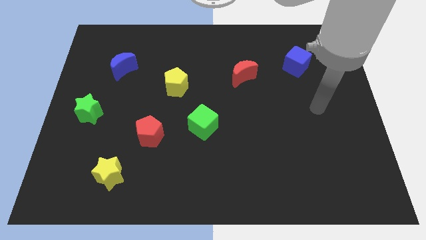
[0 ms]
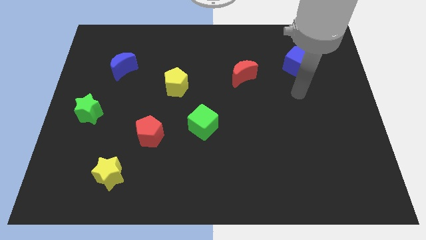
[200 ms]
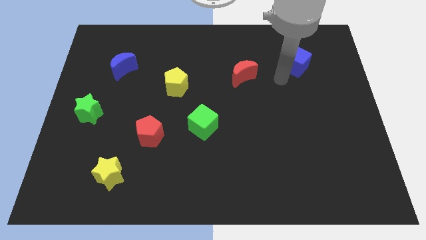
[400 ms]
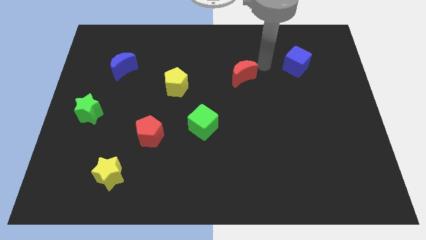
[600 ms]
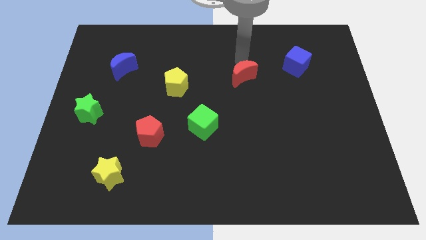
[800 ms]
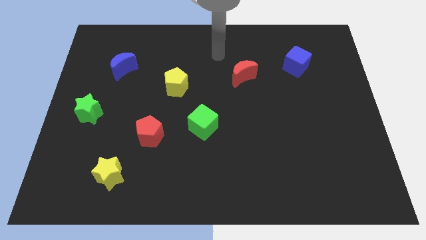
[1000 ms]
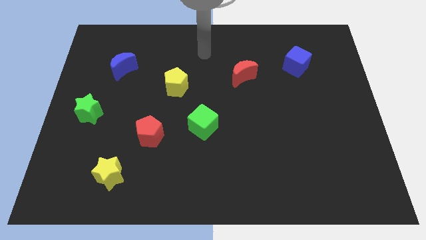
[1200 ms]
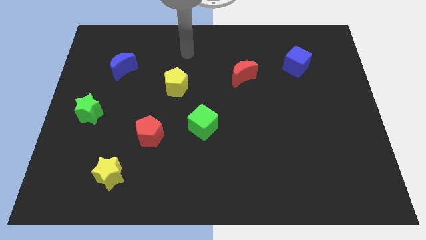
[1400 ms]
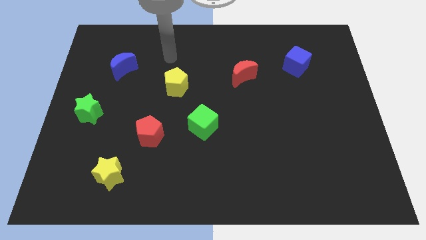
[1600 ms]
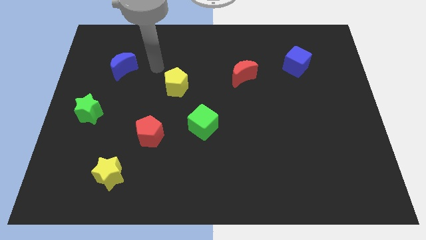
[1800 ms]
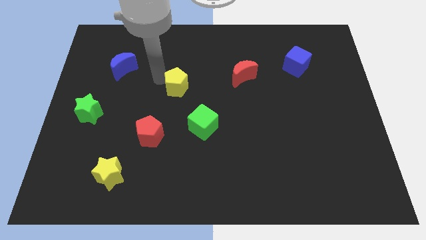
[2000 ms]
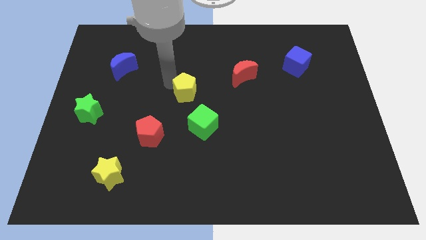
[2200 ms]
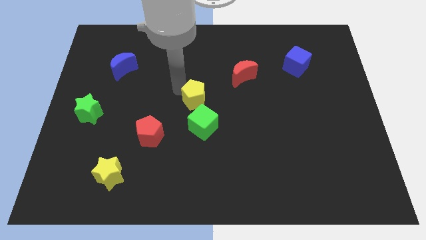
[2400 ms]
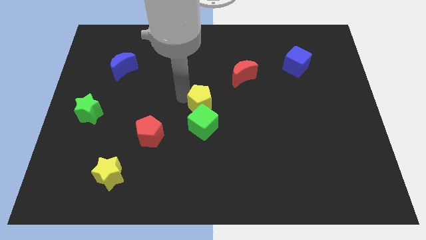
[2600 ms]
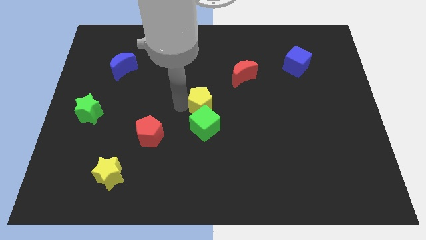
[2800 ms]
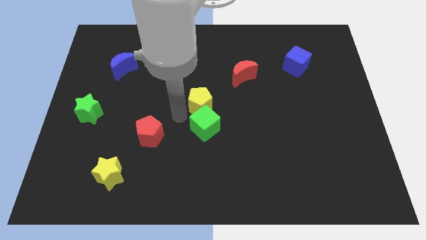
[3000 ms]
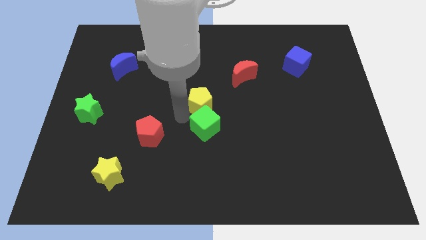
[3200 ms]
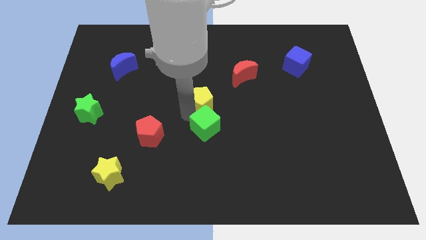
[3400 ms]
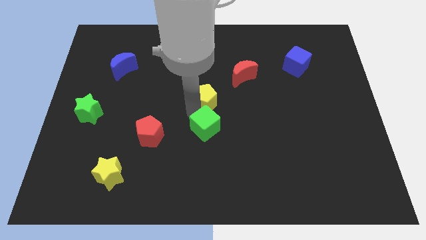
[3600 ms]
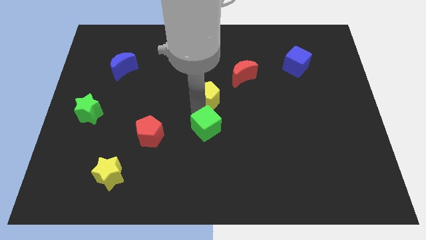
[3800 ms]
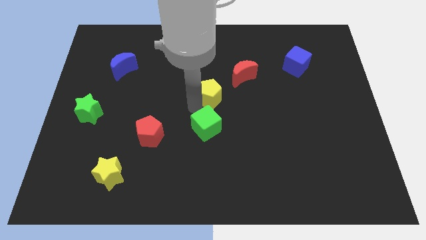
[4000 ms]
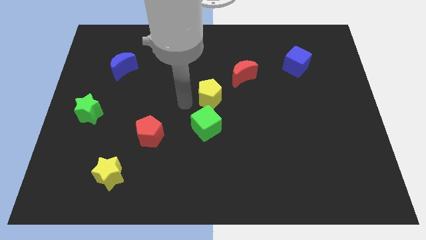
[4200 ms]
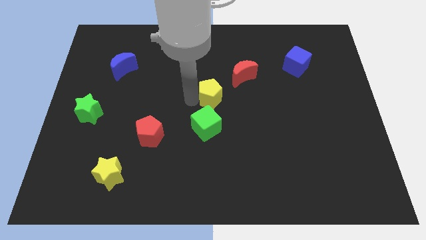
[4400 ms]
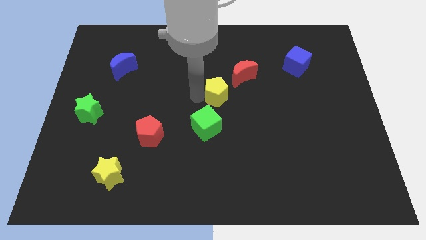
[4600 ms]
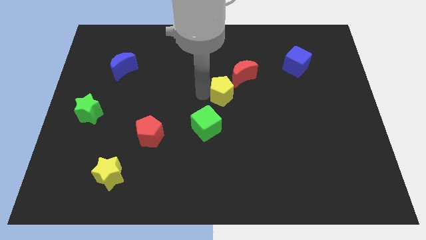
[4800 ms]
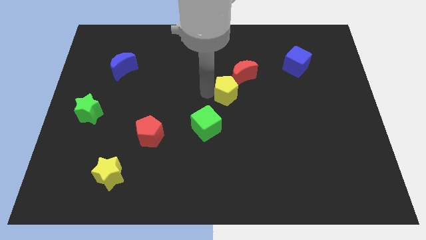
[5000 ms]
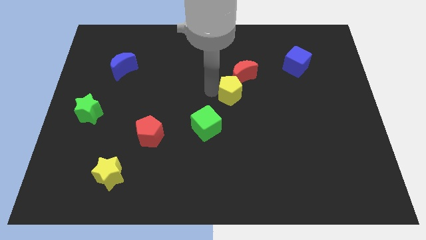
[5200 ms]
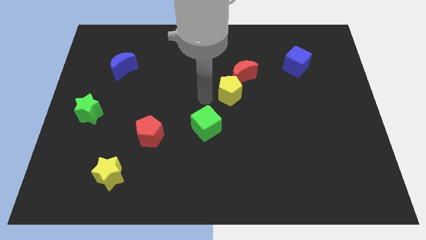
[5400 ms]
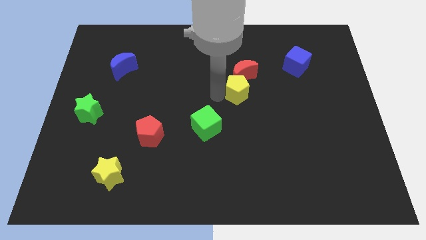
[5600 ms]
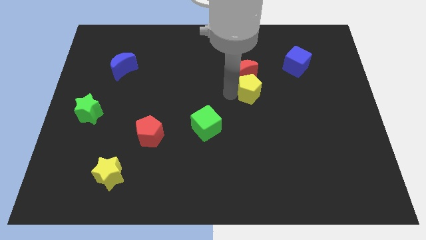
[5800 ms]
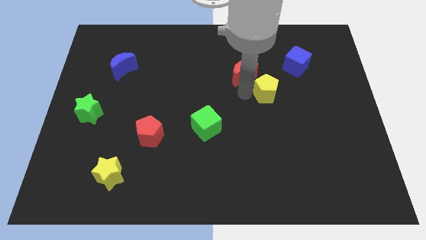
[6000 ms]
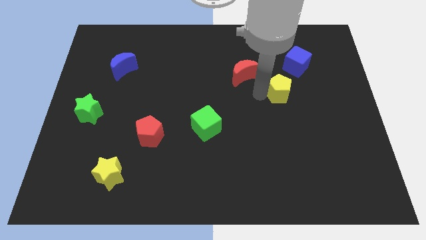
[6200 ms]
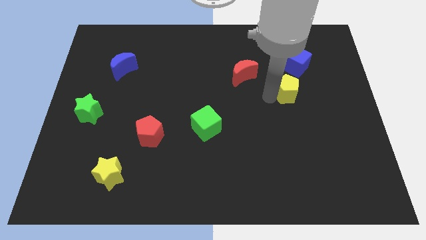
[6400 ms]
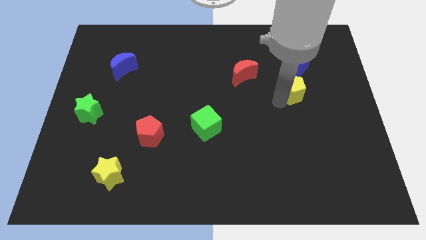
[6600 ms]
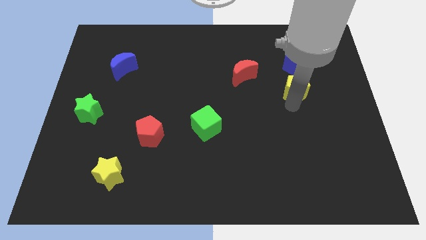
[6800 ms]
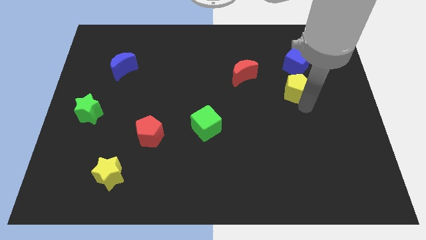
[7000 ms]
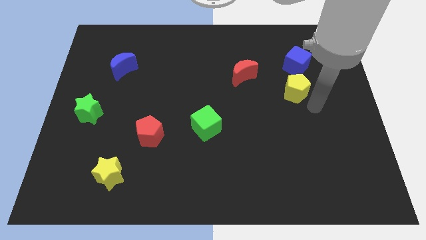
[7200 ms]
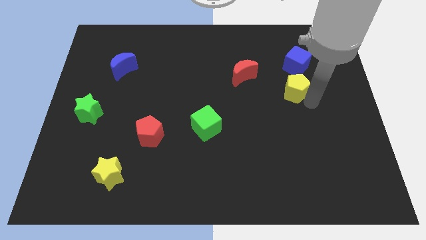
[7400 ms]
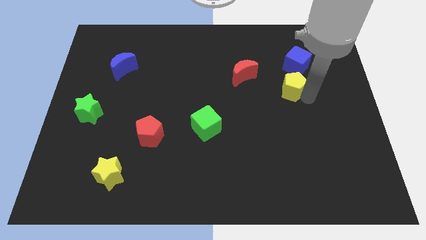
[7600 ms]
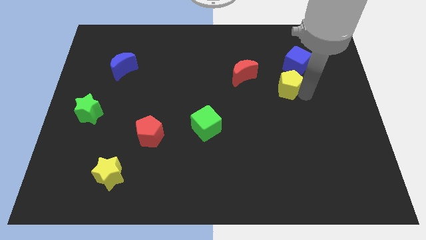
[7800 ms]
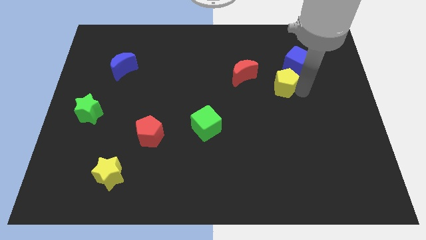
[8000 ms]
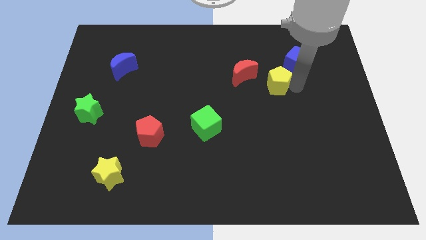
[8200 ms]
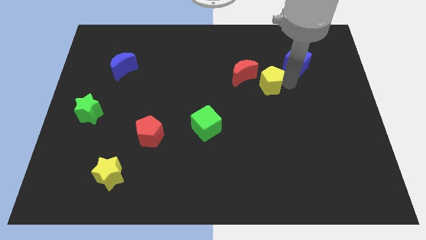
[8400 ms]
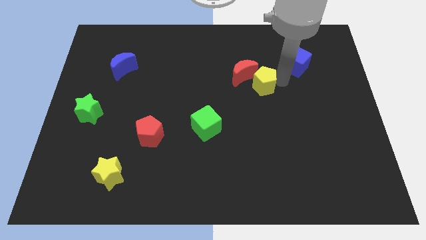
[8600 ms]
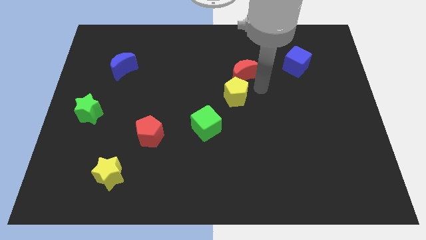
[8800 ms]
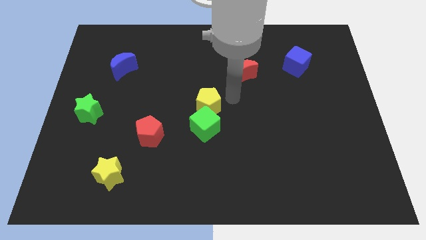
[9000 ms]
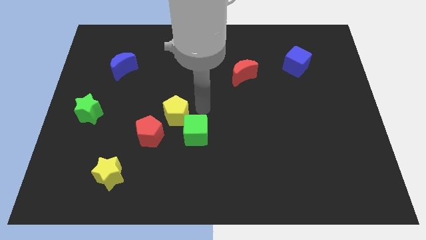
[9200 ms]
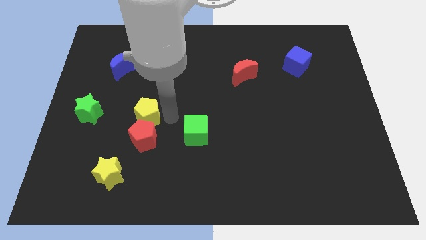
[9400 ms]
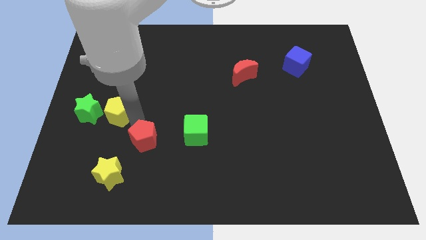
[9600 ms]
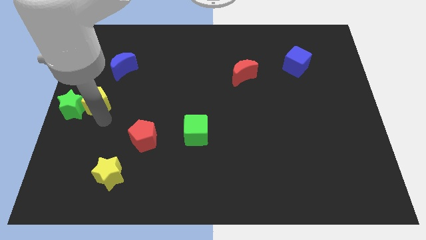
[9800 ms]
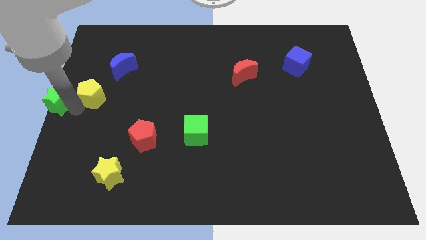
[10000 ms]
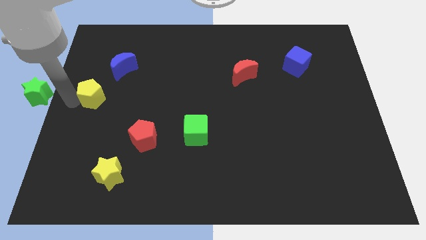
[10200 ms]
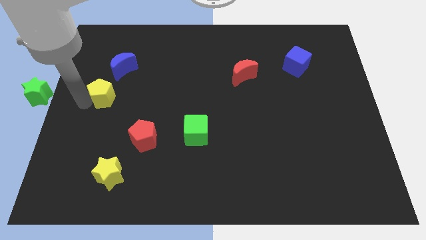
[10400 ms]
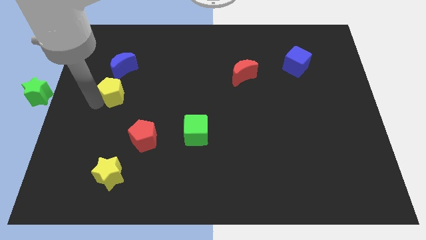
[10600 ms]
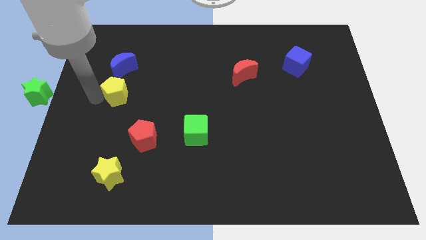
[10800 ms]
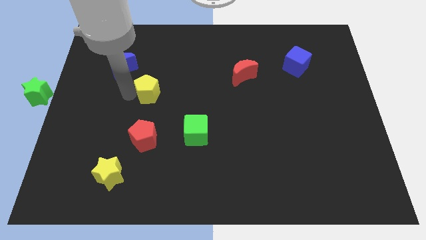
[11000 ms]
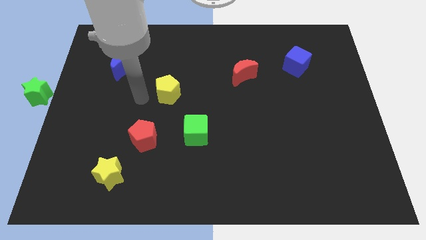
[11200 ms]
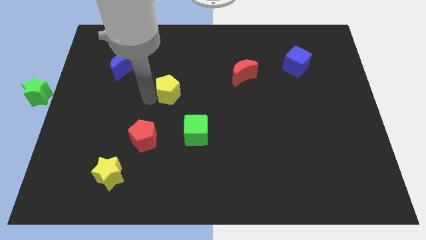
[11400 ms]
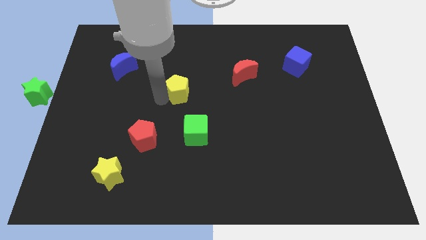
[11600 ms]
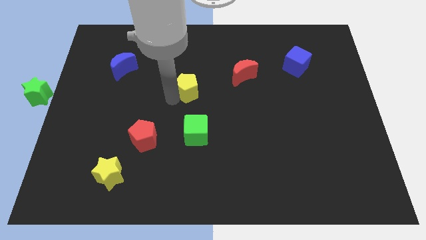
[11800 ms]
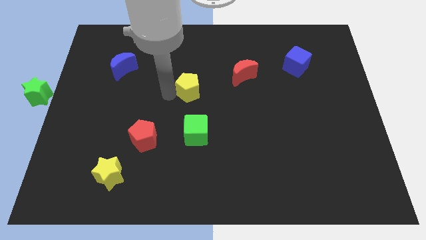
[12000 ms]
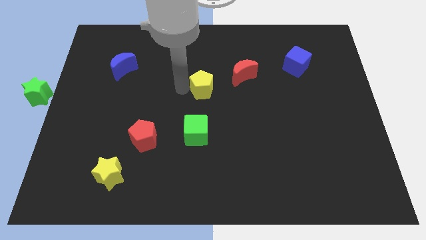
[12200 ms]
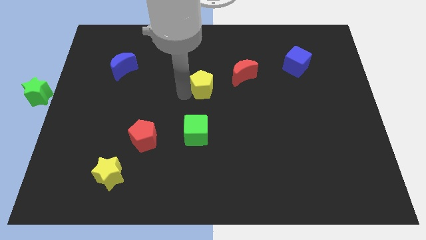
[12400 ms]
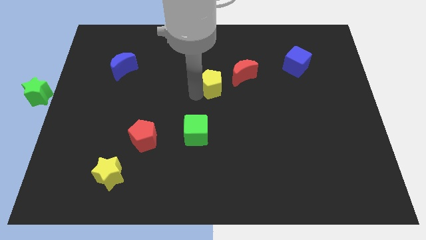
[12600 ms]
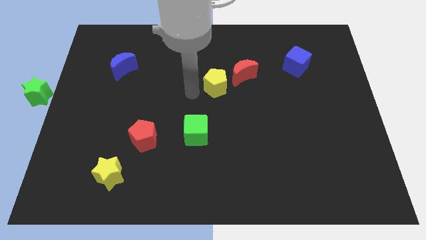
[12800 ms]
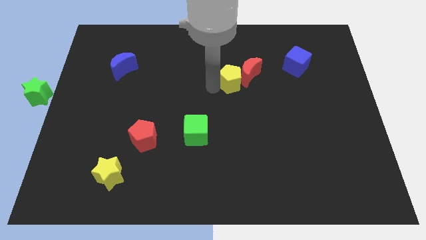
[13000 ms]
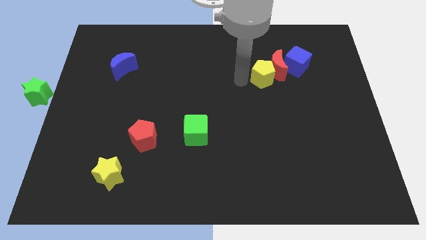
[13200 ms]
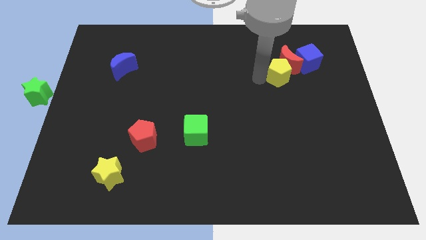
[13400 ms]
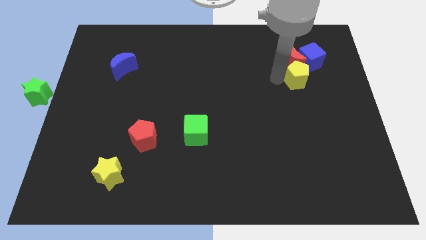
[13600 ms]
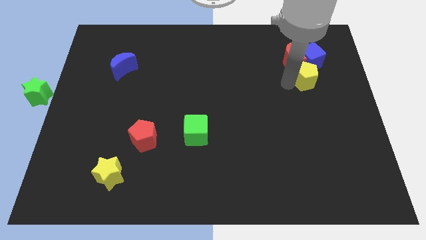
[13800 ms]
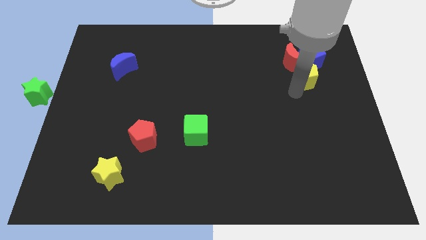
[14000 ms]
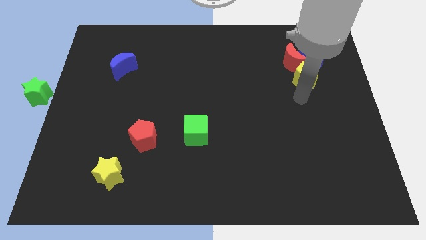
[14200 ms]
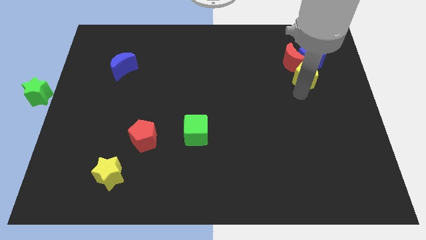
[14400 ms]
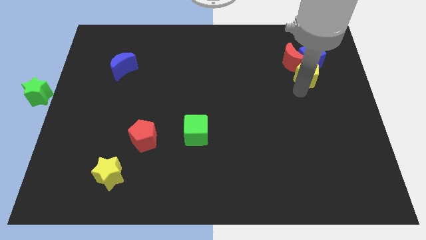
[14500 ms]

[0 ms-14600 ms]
move the yellow pentagon towards the blue cube
